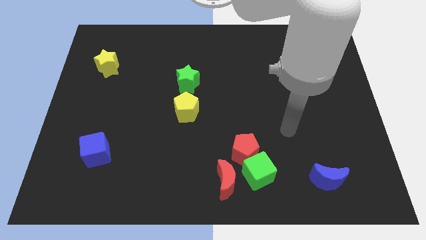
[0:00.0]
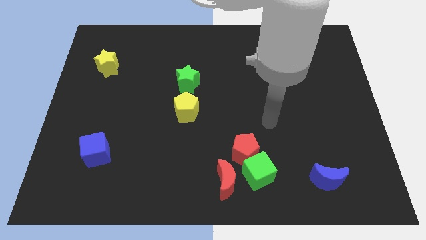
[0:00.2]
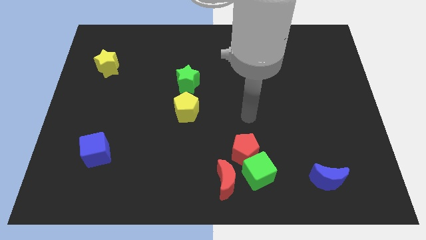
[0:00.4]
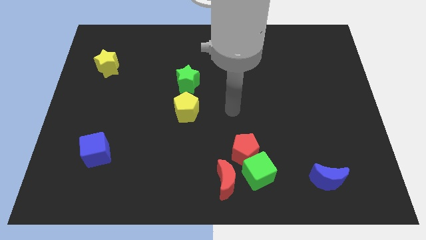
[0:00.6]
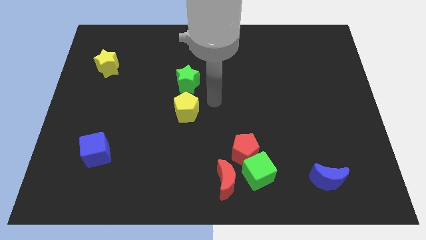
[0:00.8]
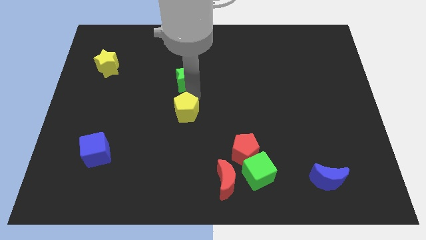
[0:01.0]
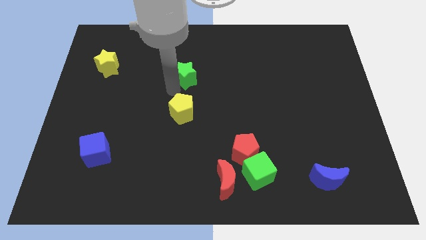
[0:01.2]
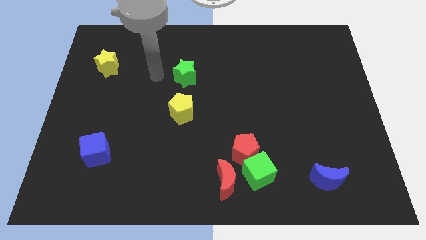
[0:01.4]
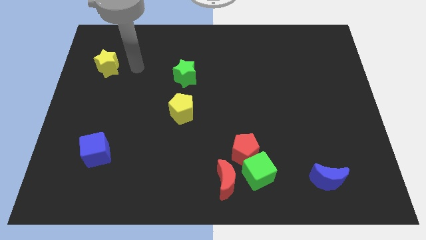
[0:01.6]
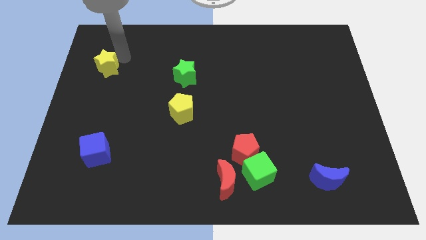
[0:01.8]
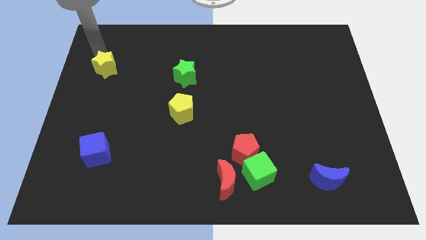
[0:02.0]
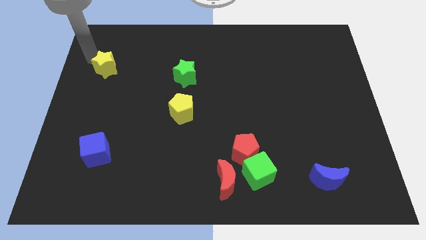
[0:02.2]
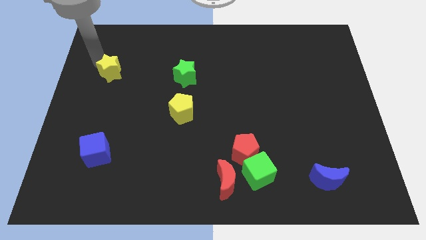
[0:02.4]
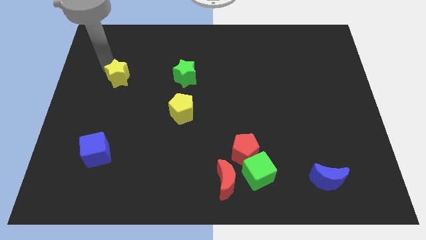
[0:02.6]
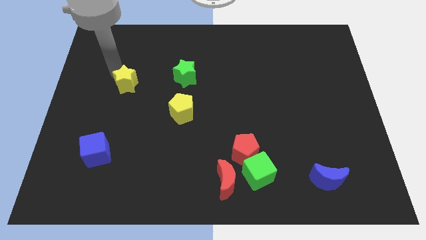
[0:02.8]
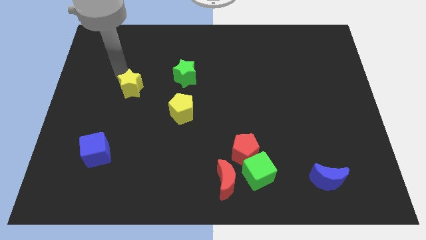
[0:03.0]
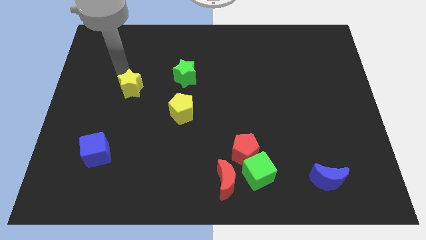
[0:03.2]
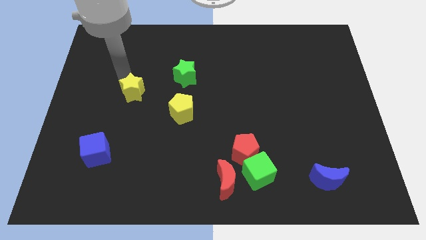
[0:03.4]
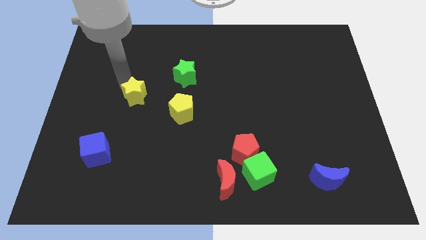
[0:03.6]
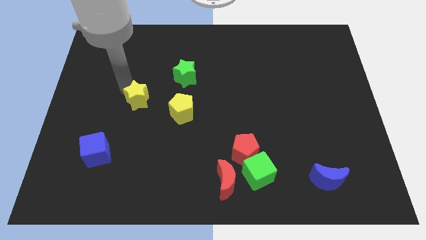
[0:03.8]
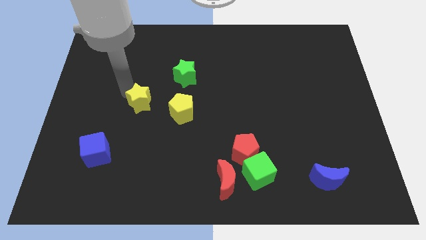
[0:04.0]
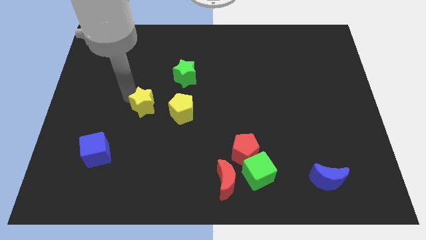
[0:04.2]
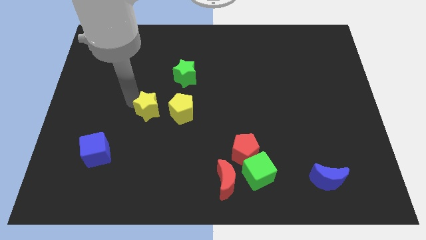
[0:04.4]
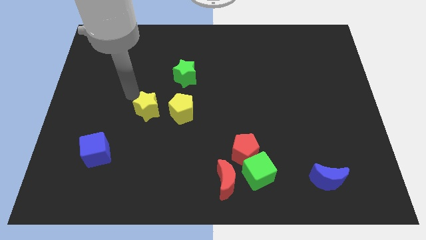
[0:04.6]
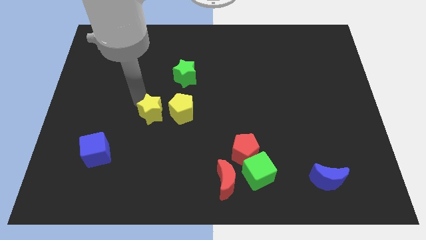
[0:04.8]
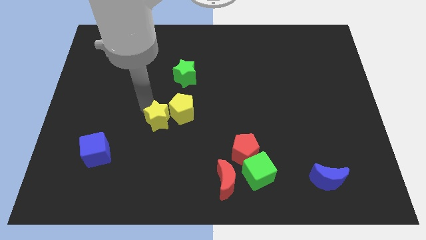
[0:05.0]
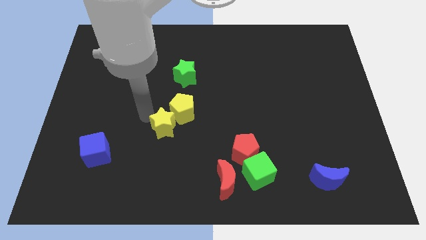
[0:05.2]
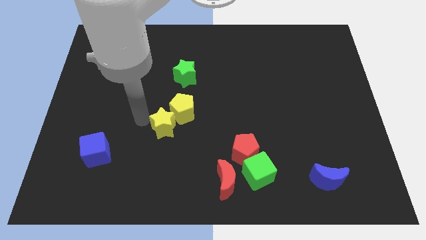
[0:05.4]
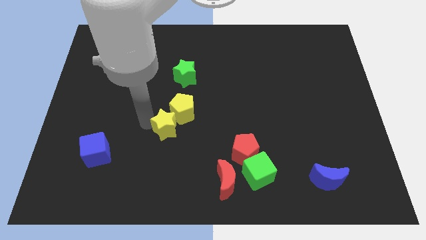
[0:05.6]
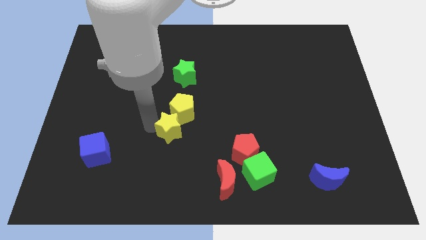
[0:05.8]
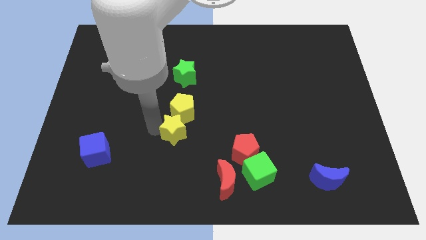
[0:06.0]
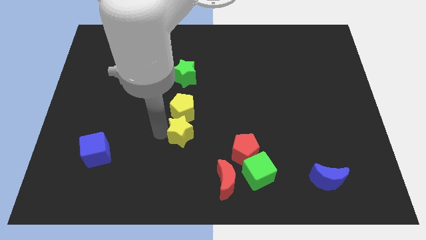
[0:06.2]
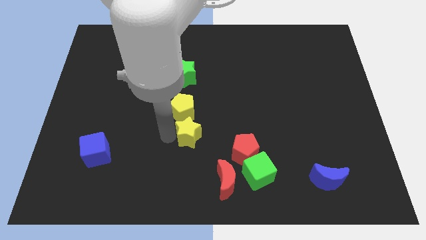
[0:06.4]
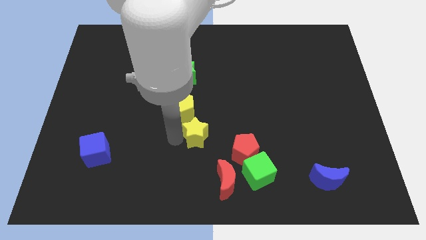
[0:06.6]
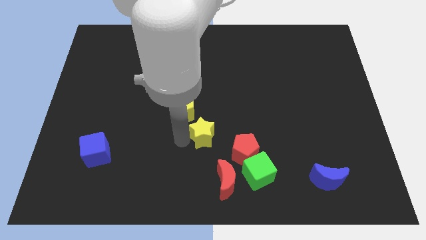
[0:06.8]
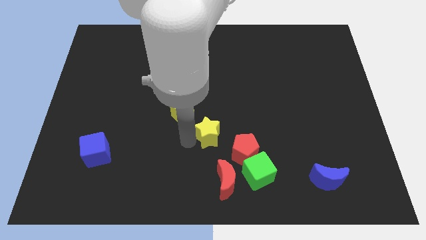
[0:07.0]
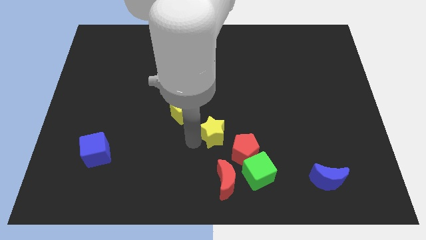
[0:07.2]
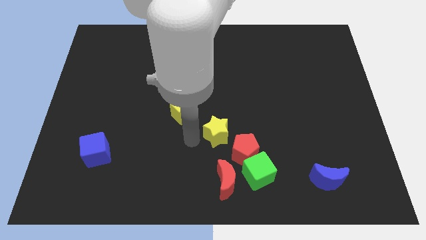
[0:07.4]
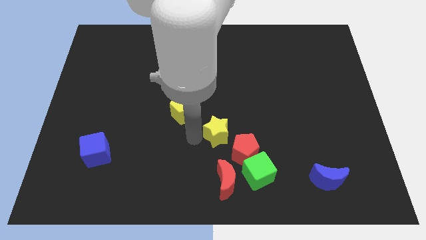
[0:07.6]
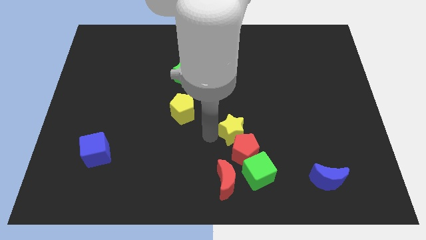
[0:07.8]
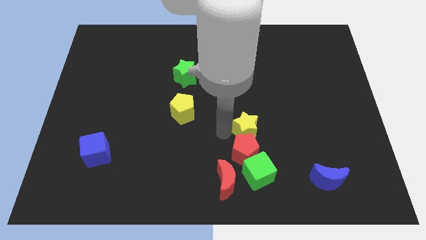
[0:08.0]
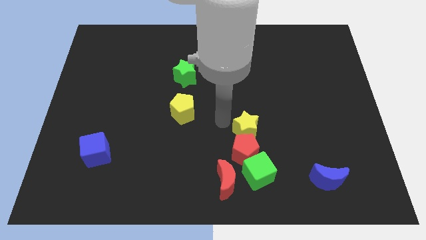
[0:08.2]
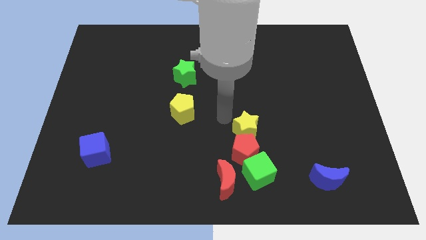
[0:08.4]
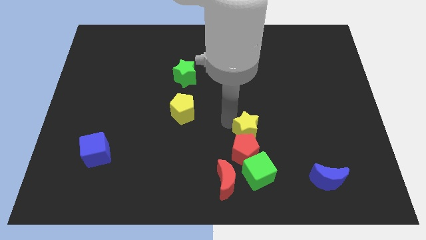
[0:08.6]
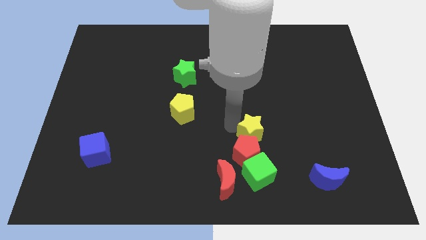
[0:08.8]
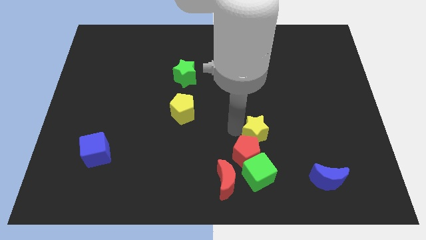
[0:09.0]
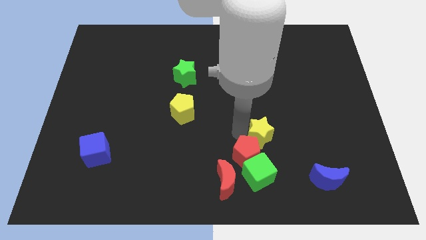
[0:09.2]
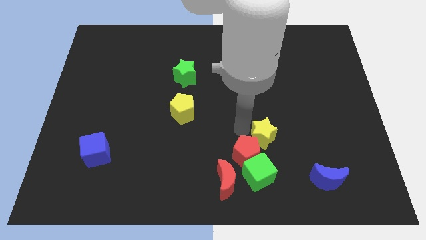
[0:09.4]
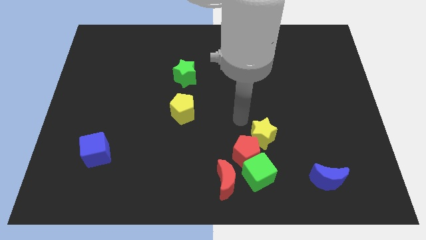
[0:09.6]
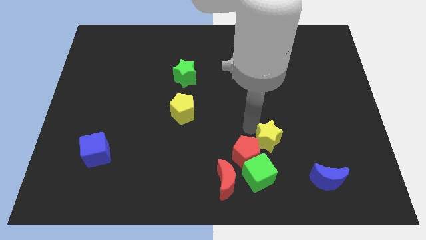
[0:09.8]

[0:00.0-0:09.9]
move the yellow star to the top right of the green cube

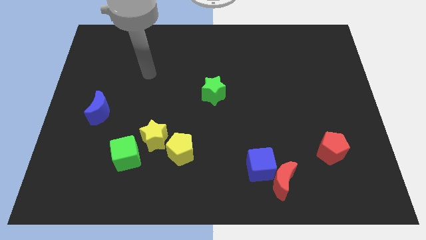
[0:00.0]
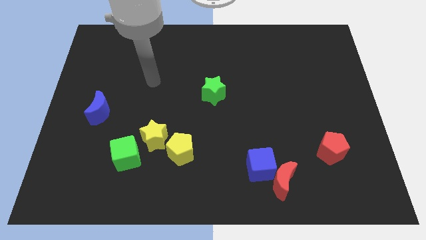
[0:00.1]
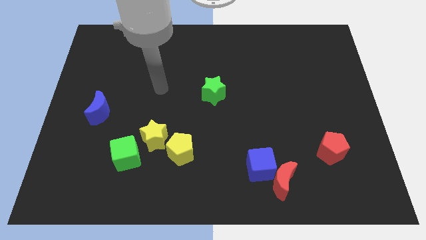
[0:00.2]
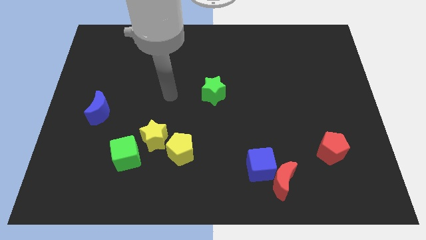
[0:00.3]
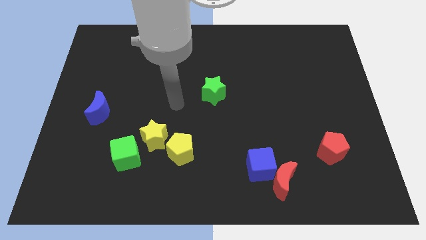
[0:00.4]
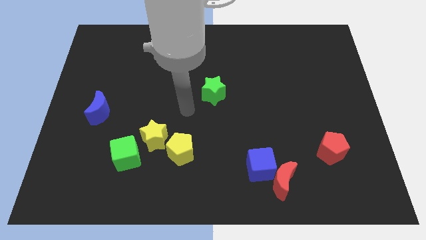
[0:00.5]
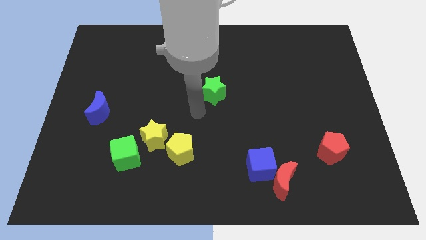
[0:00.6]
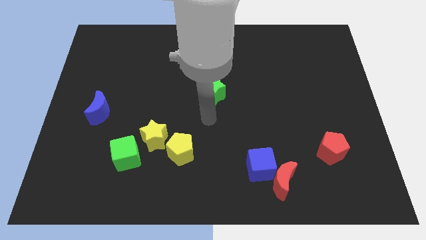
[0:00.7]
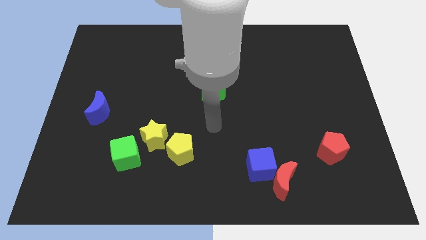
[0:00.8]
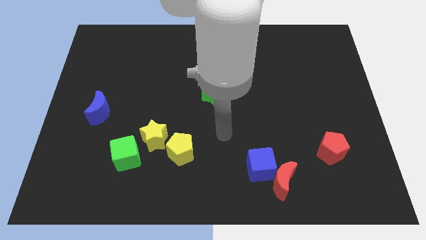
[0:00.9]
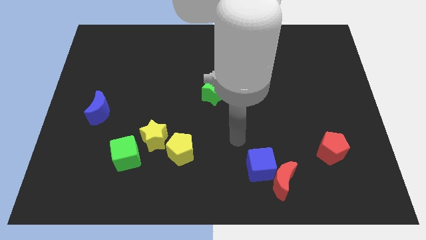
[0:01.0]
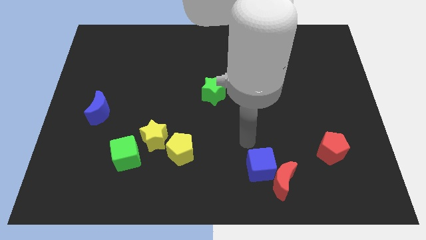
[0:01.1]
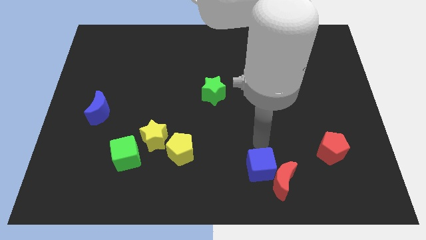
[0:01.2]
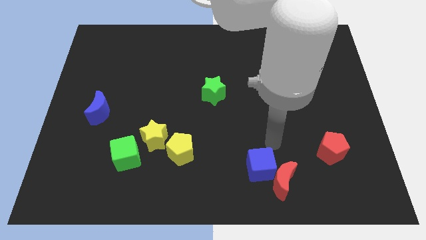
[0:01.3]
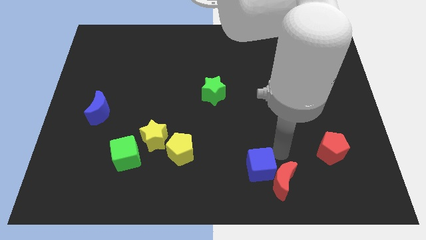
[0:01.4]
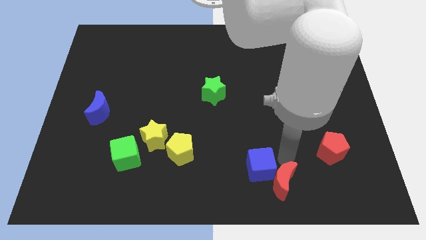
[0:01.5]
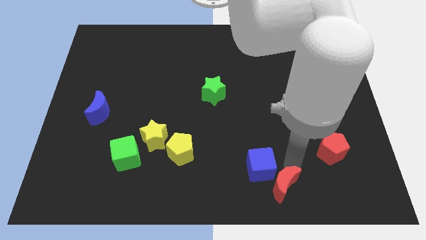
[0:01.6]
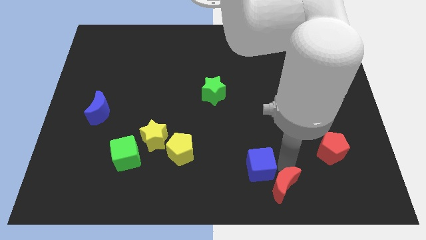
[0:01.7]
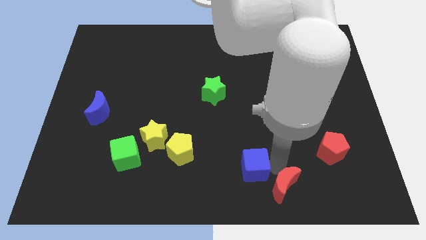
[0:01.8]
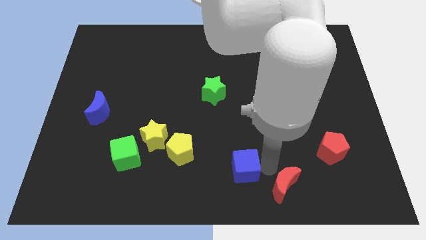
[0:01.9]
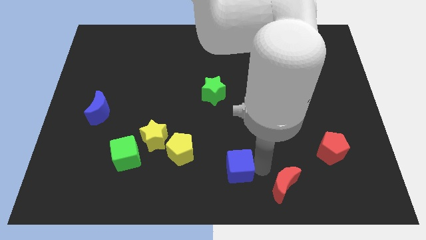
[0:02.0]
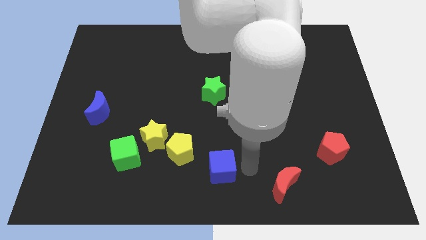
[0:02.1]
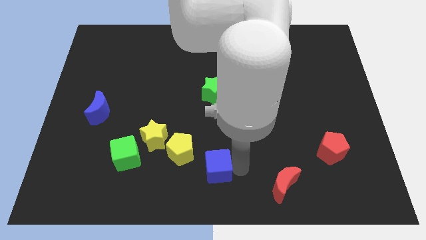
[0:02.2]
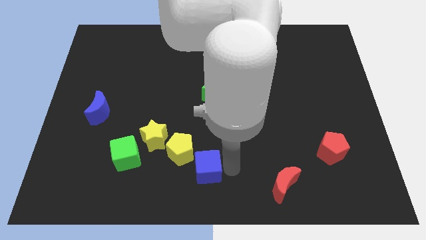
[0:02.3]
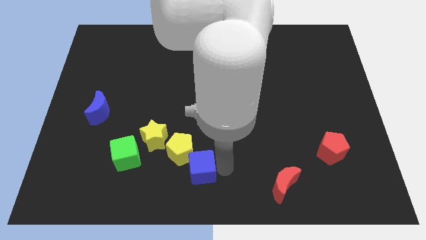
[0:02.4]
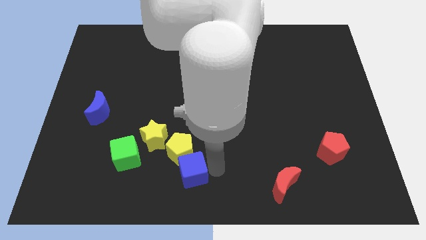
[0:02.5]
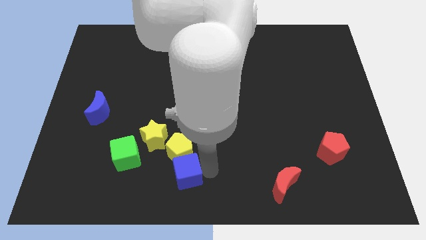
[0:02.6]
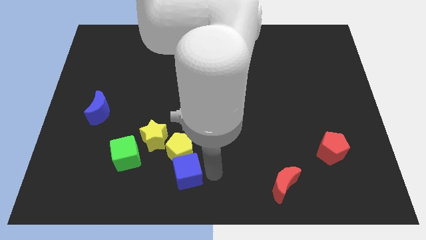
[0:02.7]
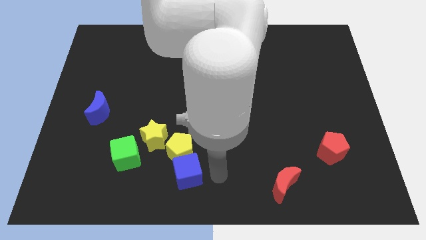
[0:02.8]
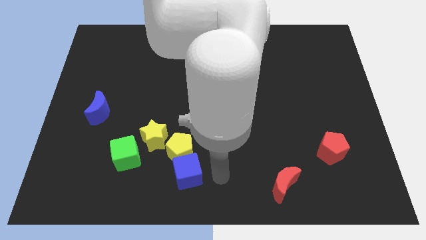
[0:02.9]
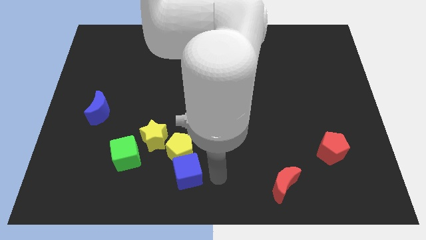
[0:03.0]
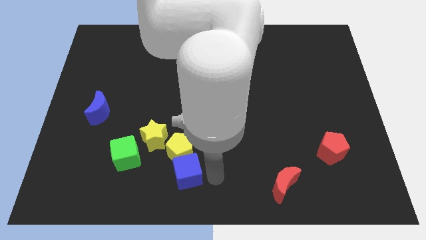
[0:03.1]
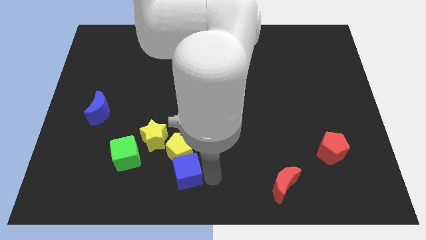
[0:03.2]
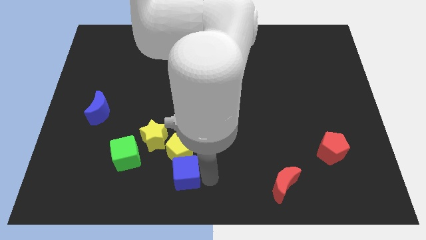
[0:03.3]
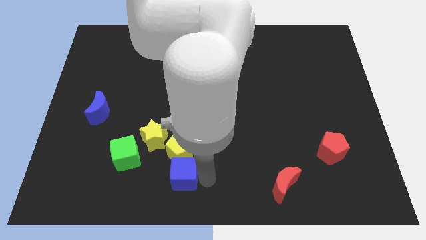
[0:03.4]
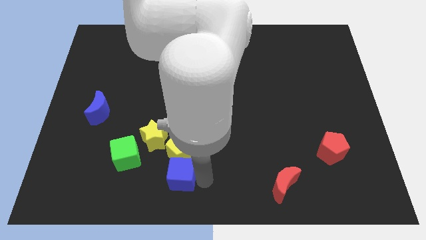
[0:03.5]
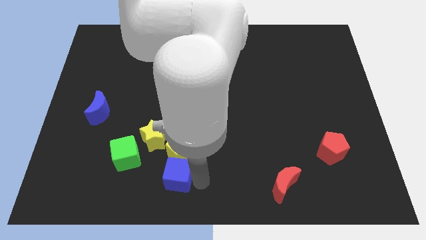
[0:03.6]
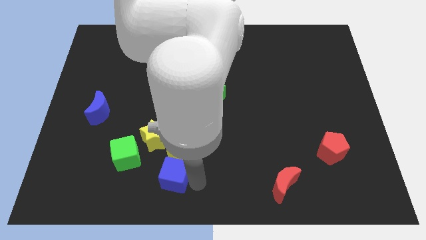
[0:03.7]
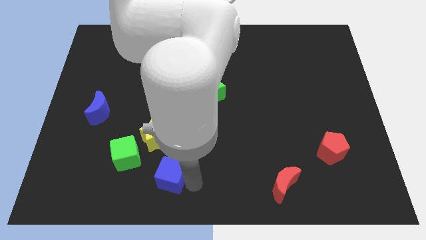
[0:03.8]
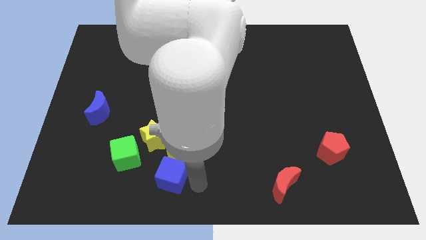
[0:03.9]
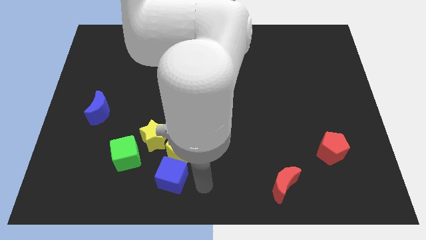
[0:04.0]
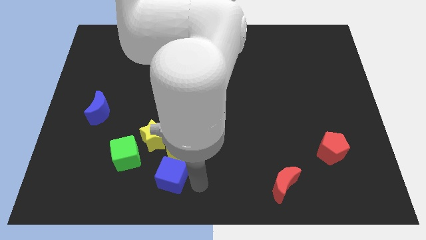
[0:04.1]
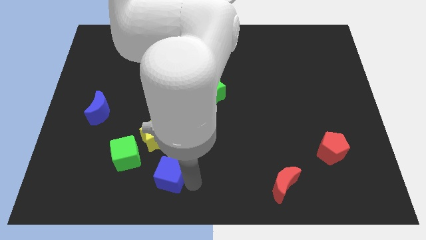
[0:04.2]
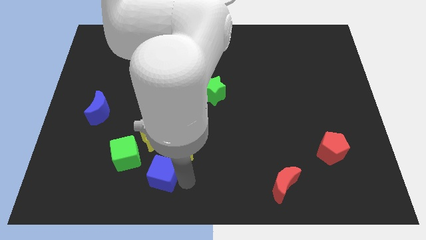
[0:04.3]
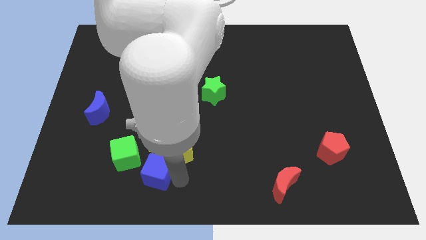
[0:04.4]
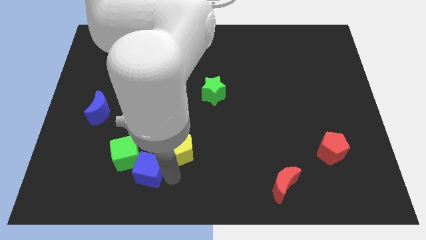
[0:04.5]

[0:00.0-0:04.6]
move the blue cube just left of the yellow pentagon
